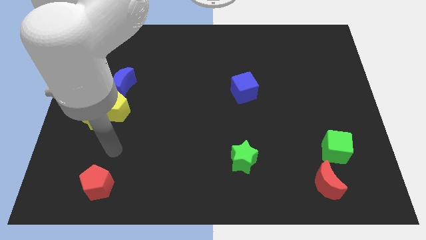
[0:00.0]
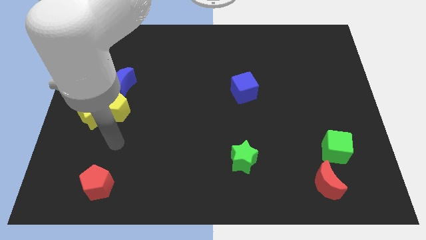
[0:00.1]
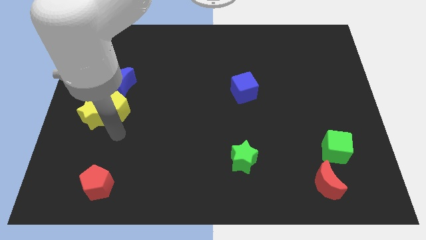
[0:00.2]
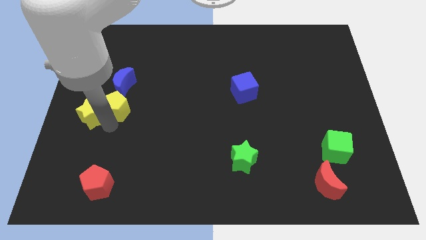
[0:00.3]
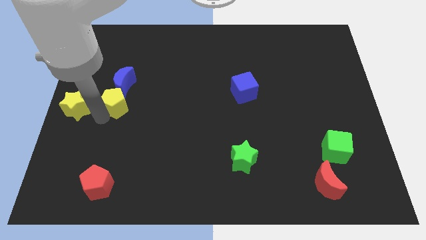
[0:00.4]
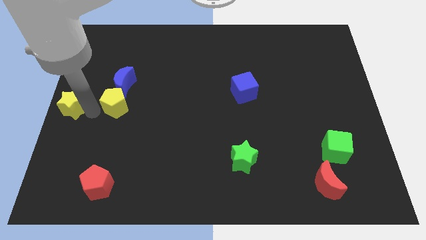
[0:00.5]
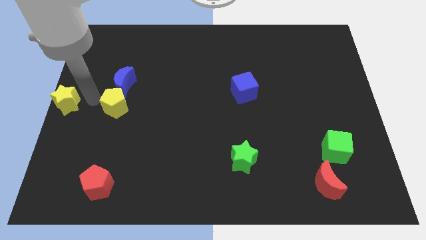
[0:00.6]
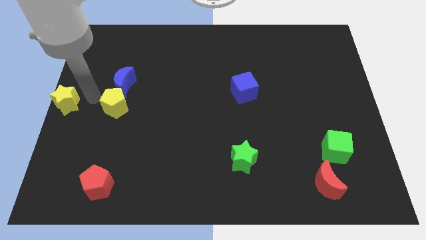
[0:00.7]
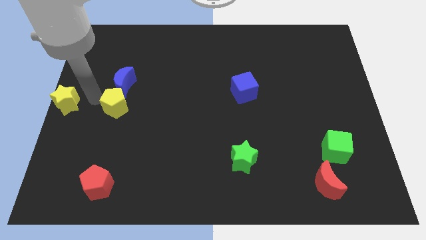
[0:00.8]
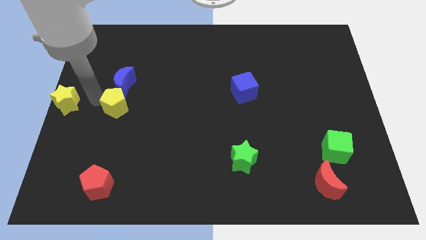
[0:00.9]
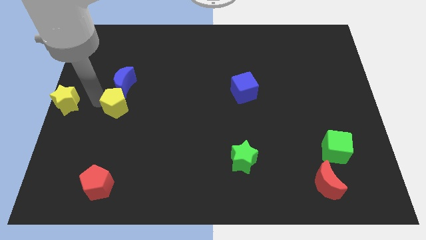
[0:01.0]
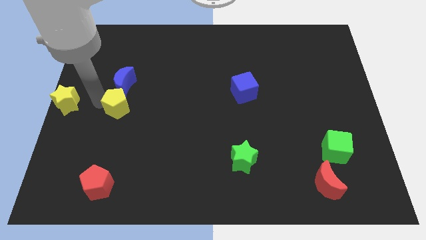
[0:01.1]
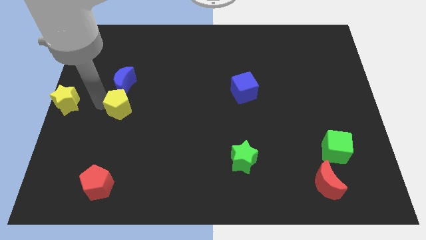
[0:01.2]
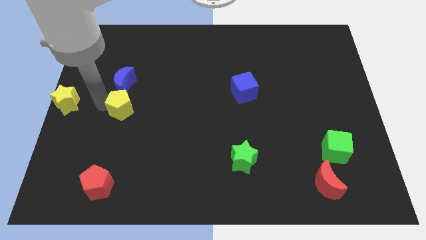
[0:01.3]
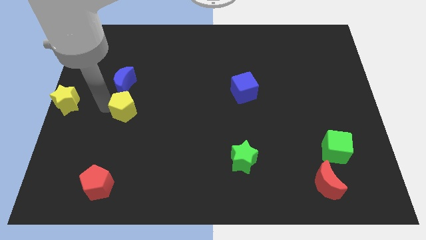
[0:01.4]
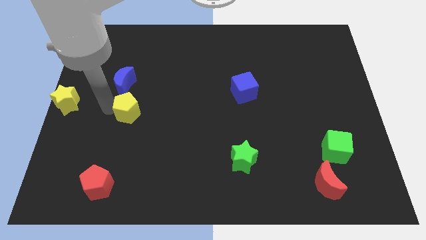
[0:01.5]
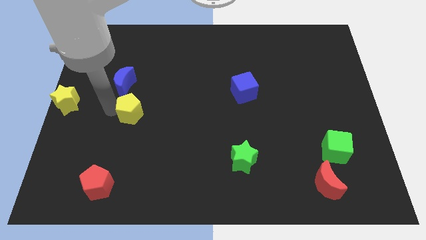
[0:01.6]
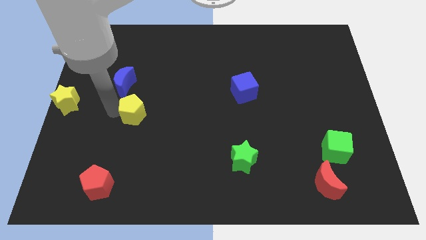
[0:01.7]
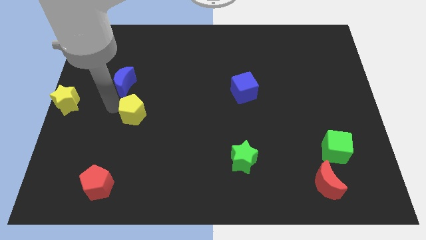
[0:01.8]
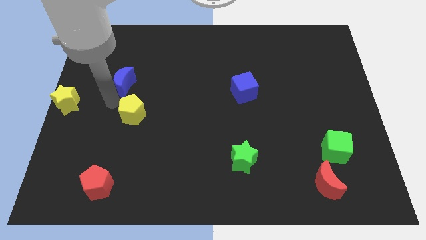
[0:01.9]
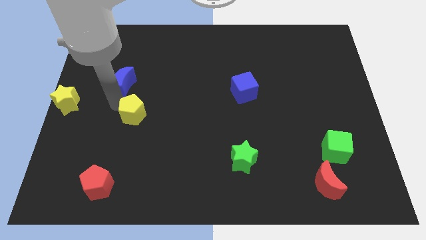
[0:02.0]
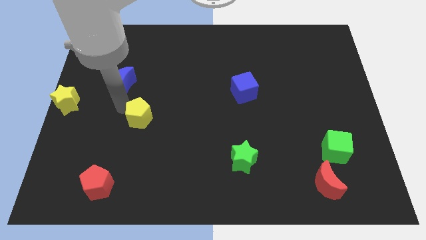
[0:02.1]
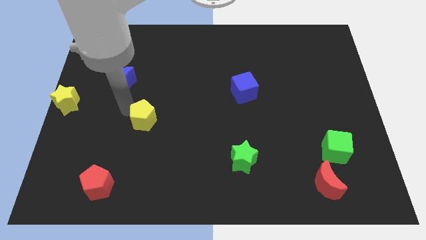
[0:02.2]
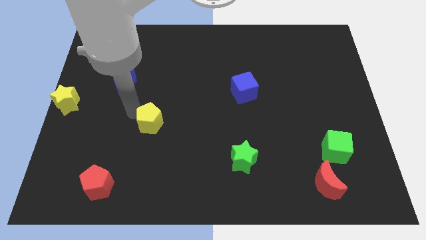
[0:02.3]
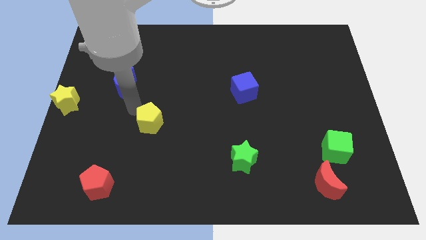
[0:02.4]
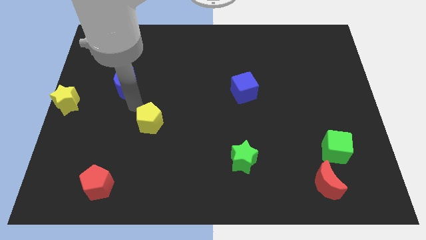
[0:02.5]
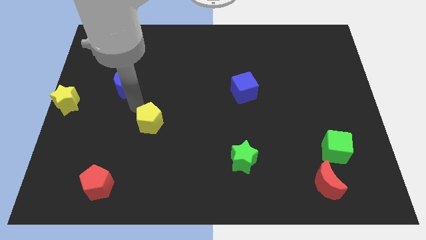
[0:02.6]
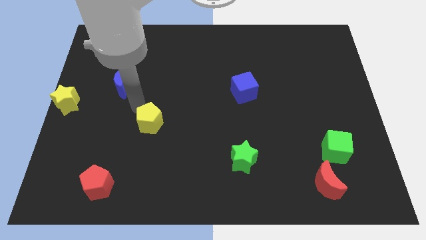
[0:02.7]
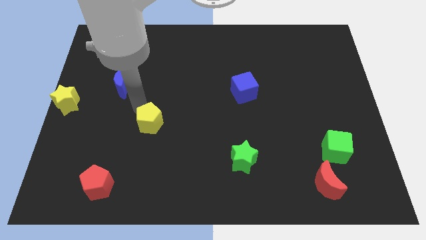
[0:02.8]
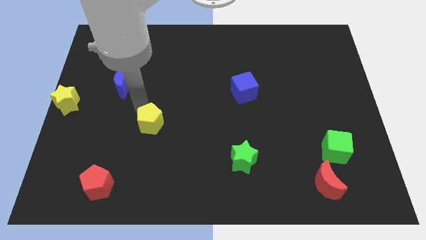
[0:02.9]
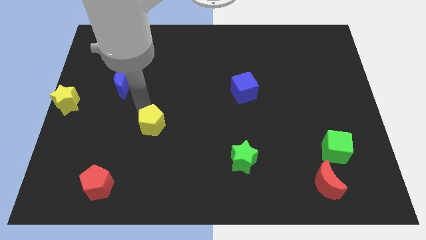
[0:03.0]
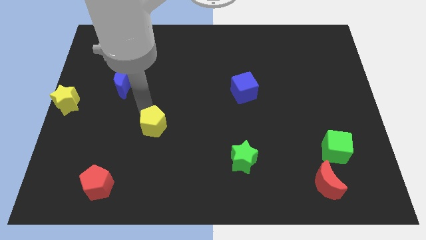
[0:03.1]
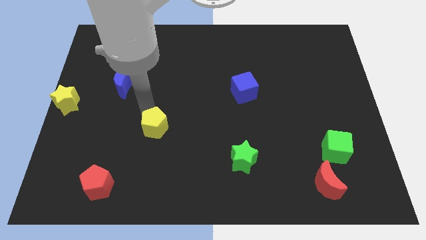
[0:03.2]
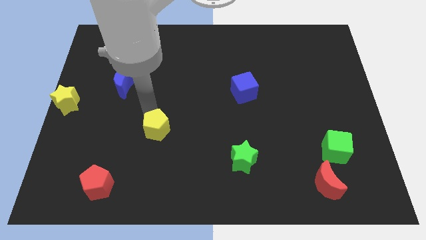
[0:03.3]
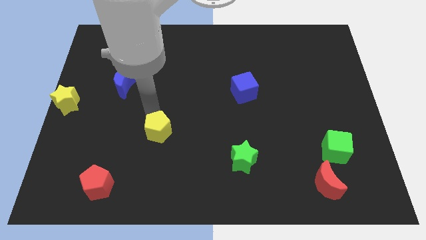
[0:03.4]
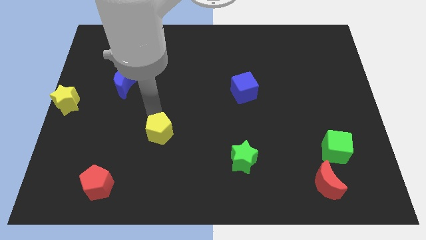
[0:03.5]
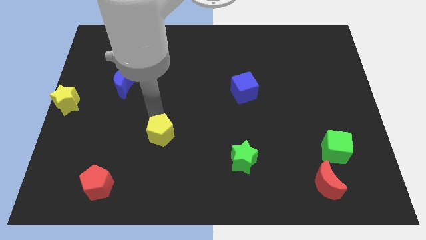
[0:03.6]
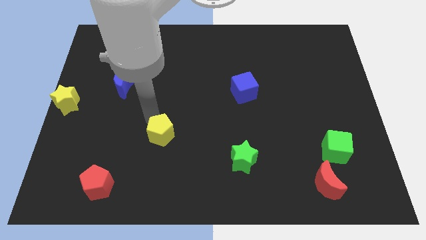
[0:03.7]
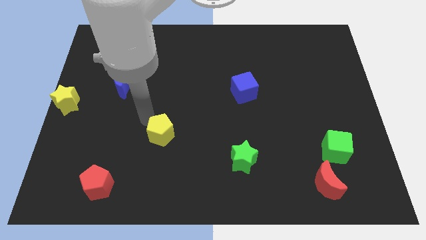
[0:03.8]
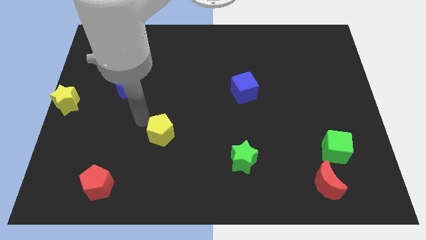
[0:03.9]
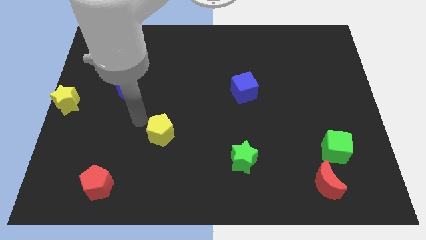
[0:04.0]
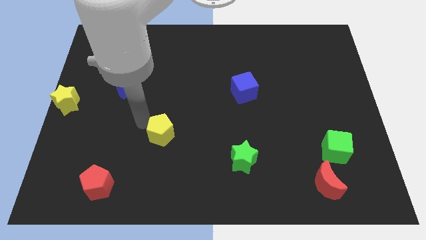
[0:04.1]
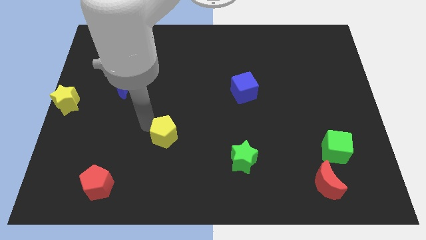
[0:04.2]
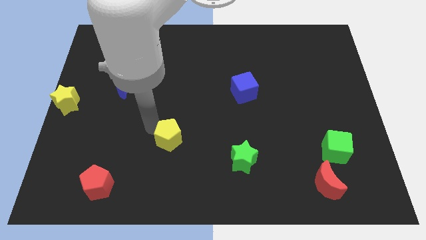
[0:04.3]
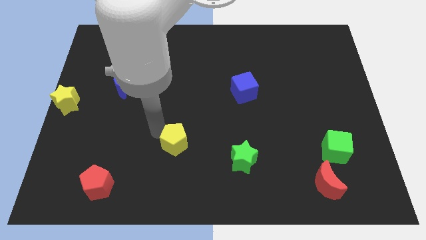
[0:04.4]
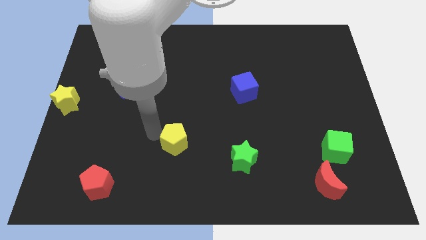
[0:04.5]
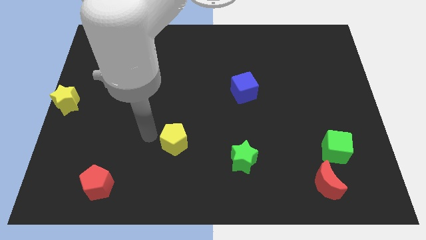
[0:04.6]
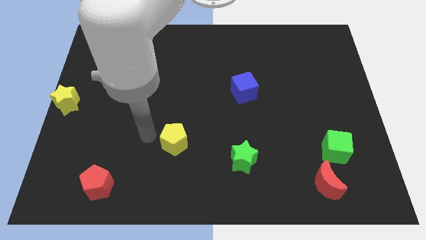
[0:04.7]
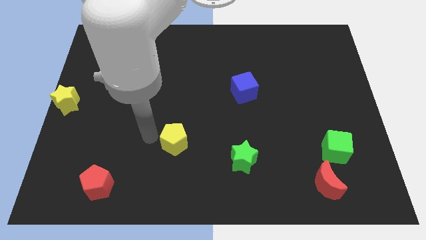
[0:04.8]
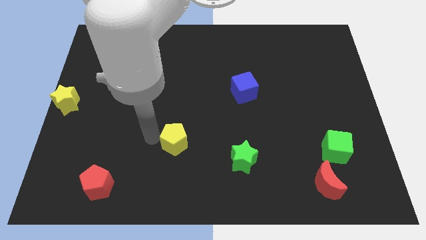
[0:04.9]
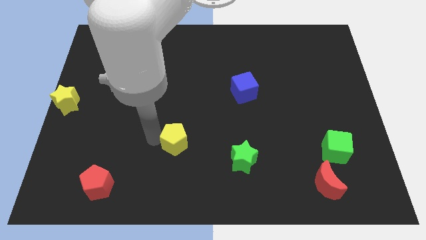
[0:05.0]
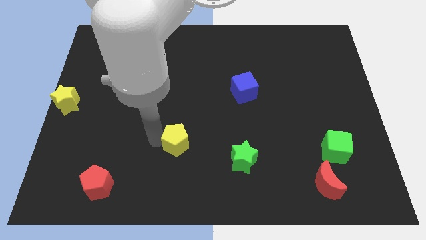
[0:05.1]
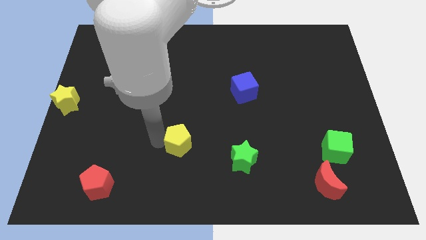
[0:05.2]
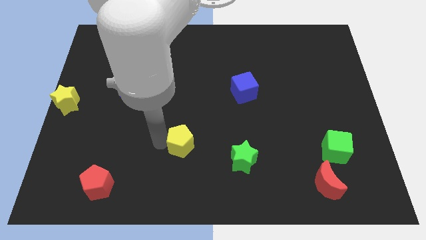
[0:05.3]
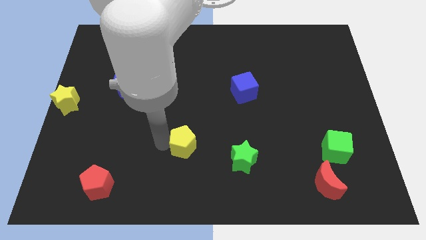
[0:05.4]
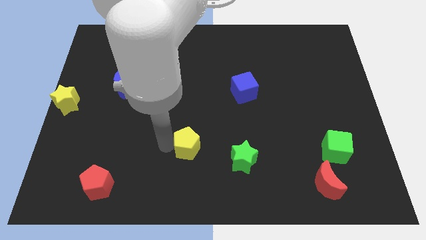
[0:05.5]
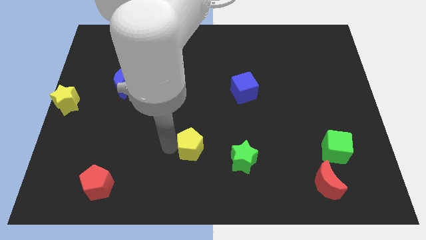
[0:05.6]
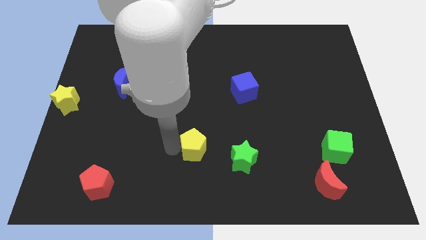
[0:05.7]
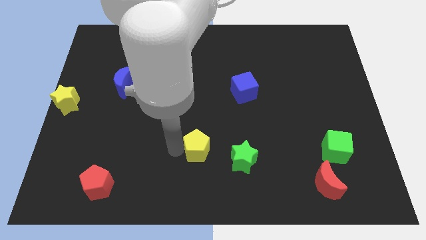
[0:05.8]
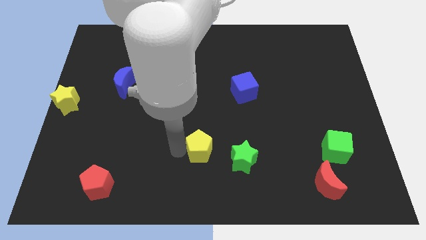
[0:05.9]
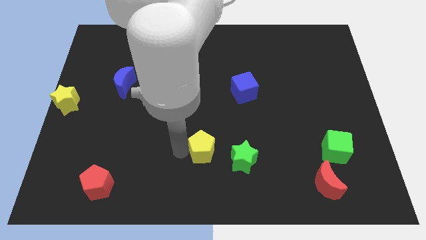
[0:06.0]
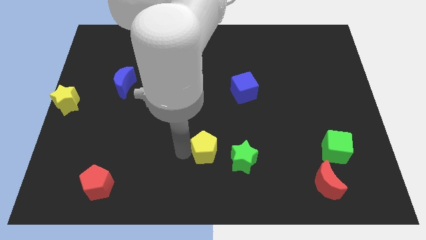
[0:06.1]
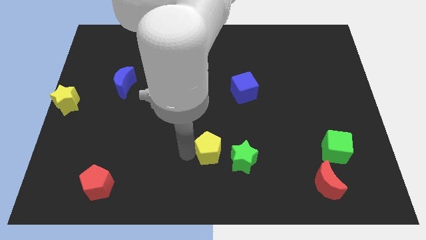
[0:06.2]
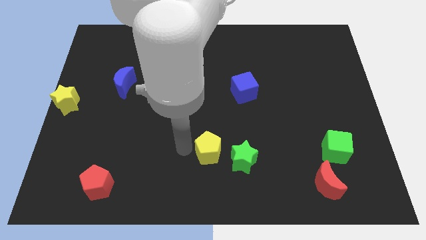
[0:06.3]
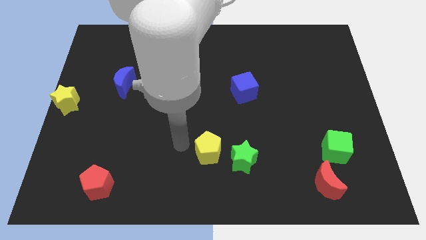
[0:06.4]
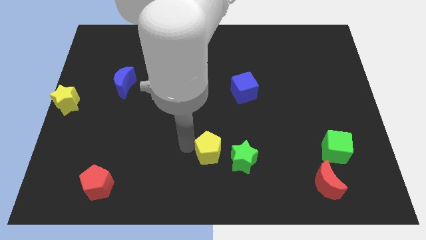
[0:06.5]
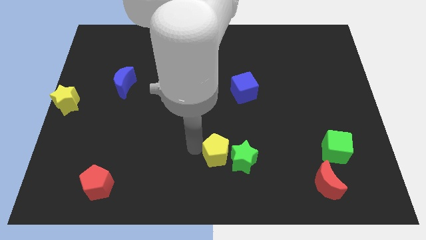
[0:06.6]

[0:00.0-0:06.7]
put the yellow pentagon next to the green star
